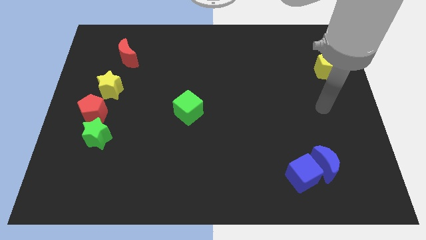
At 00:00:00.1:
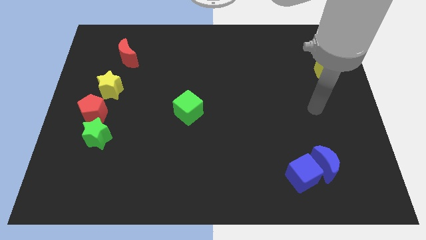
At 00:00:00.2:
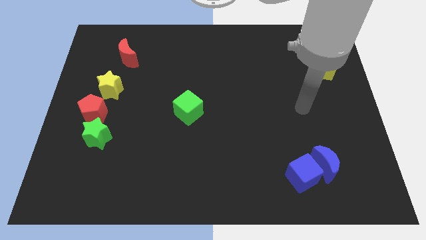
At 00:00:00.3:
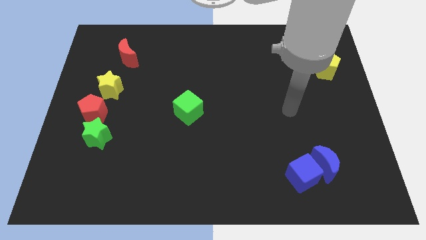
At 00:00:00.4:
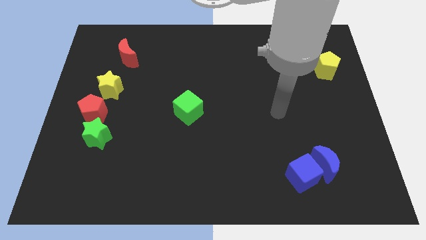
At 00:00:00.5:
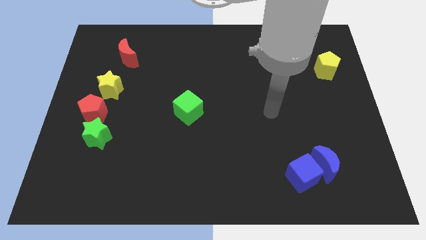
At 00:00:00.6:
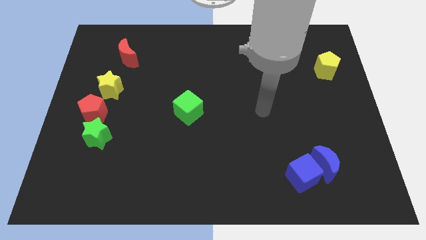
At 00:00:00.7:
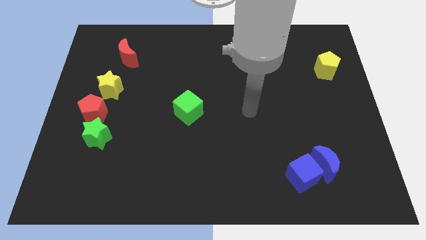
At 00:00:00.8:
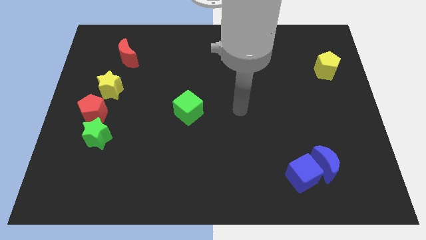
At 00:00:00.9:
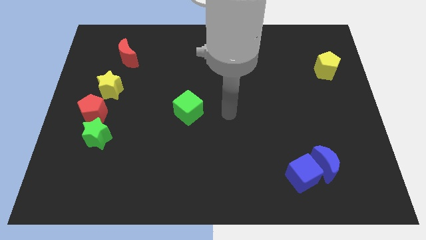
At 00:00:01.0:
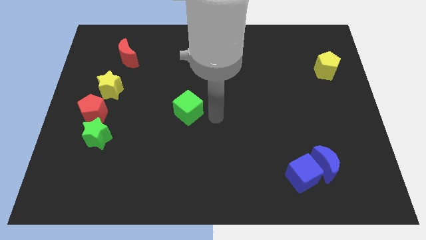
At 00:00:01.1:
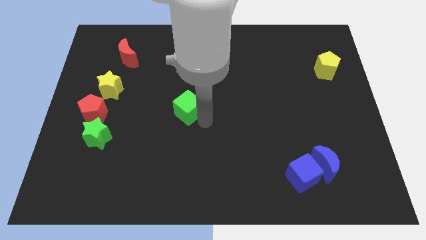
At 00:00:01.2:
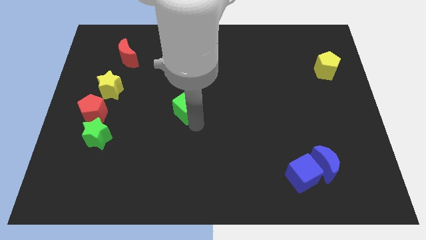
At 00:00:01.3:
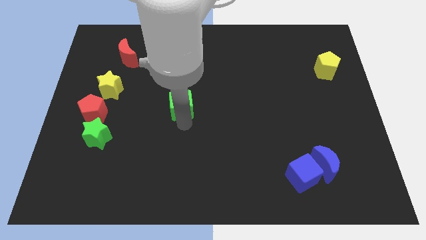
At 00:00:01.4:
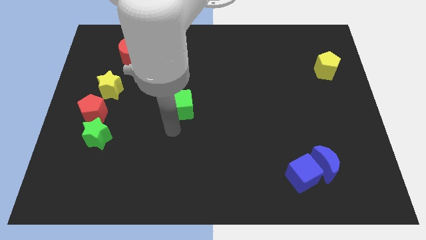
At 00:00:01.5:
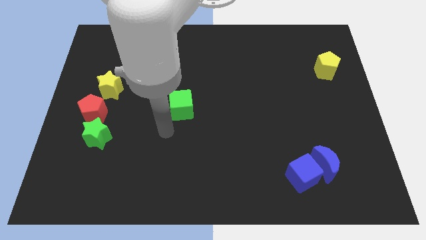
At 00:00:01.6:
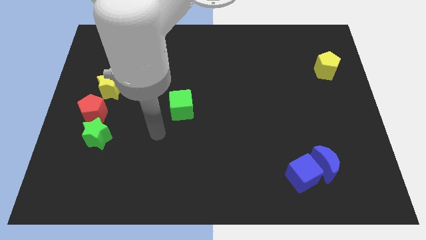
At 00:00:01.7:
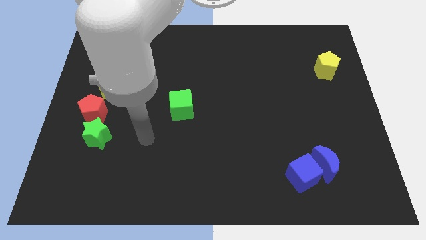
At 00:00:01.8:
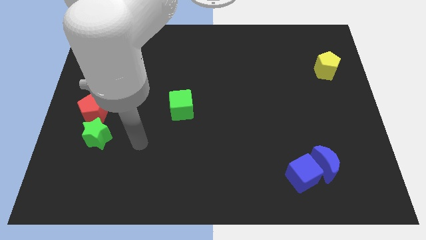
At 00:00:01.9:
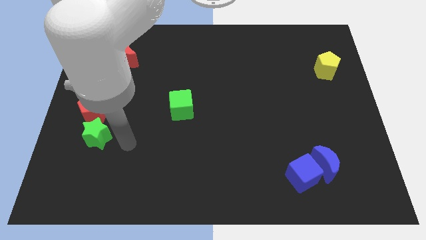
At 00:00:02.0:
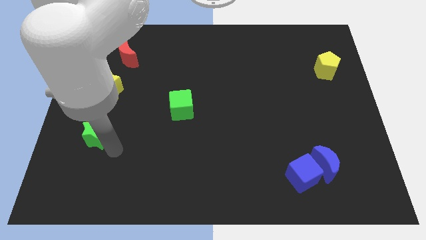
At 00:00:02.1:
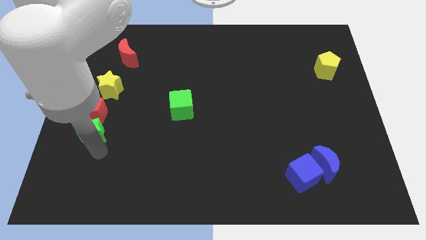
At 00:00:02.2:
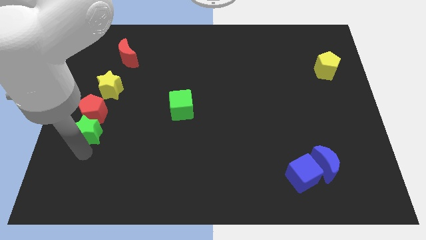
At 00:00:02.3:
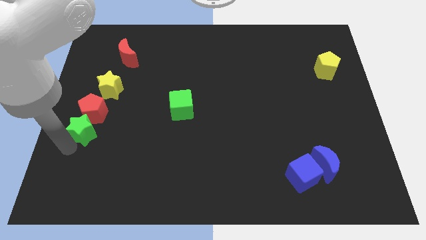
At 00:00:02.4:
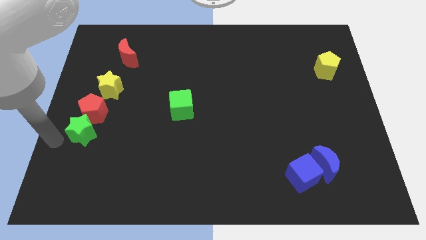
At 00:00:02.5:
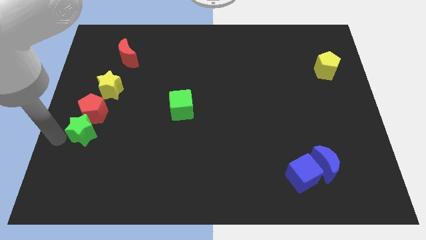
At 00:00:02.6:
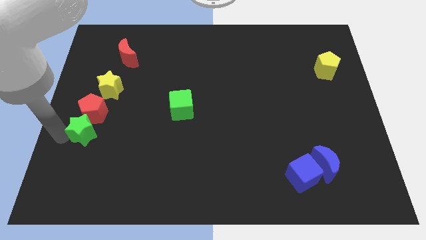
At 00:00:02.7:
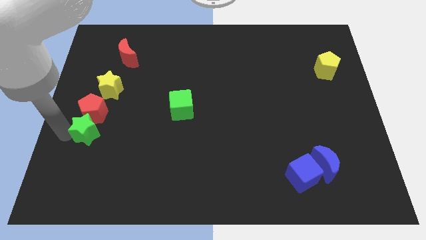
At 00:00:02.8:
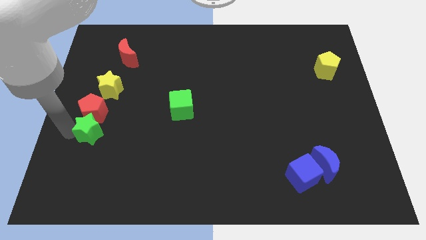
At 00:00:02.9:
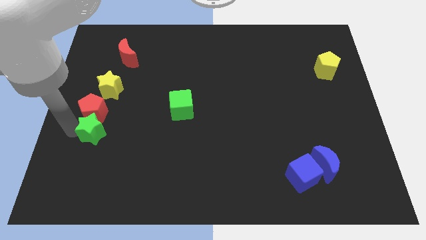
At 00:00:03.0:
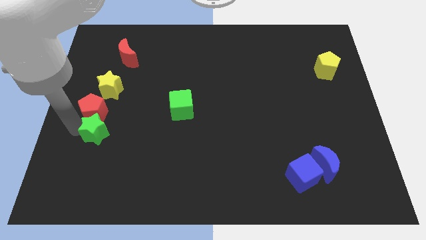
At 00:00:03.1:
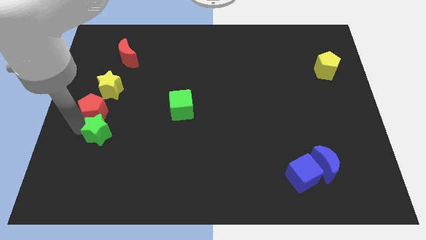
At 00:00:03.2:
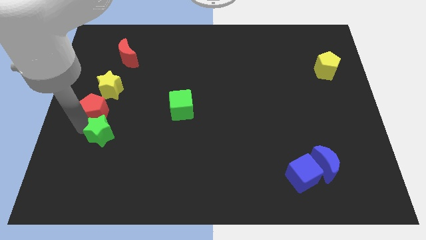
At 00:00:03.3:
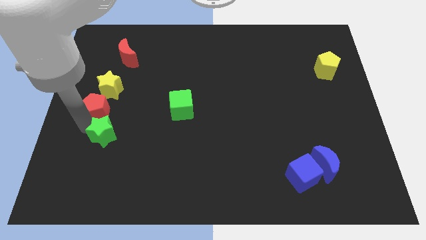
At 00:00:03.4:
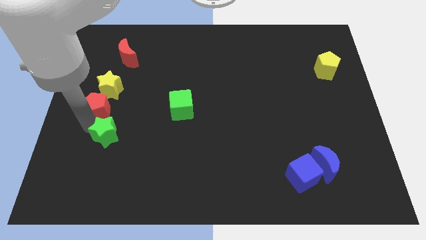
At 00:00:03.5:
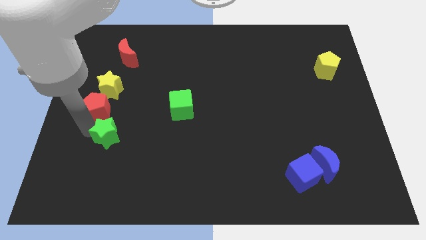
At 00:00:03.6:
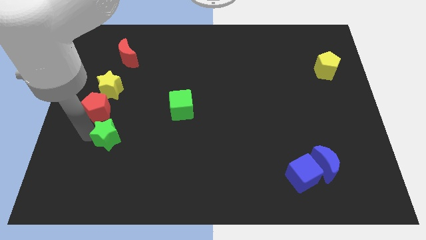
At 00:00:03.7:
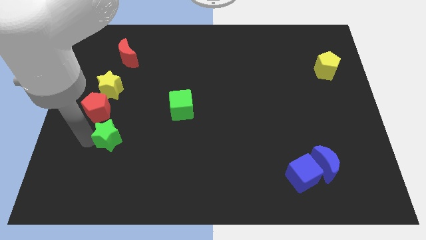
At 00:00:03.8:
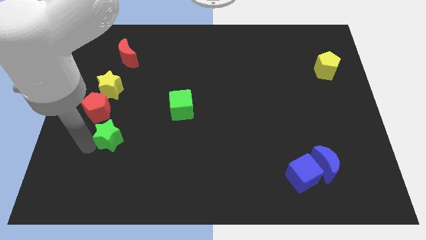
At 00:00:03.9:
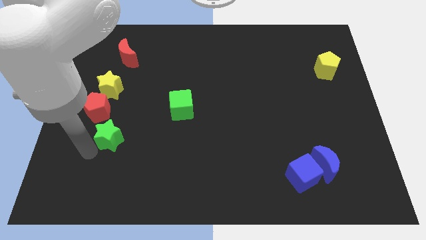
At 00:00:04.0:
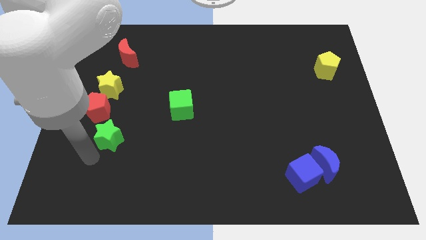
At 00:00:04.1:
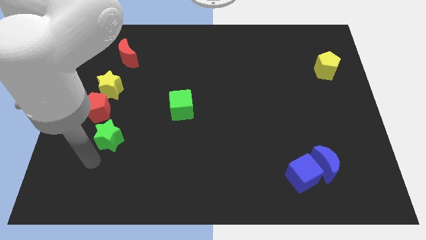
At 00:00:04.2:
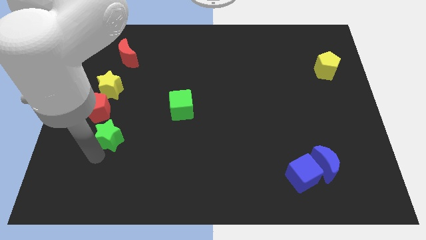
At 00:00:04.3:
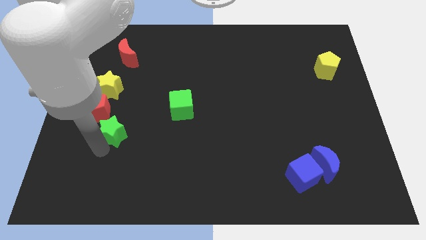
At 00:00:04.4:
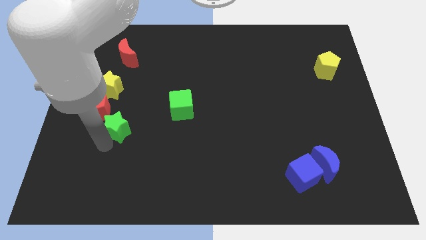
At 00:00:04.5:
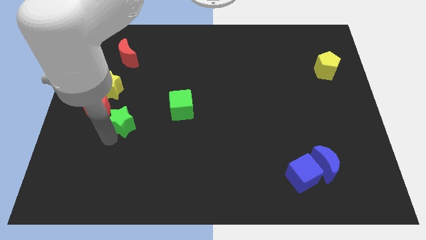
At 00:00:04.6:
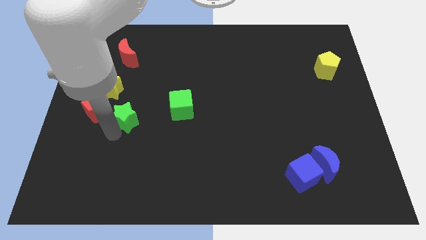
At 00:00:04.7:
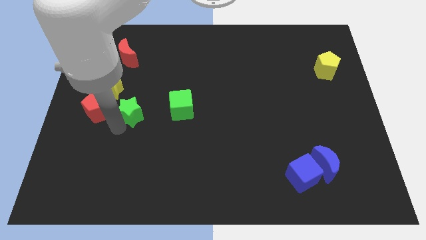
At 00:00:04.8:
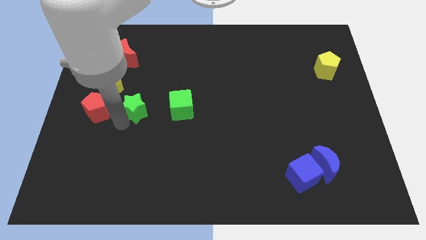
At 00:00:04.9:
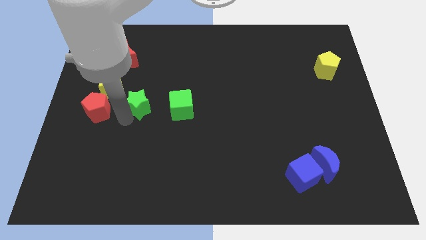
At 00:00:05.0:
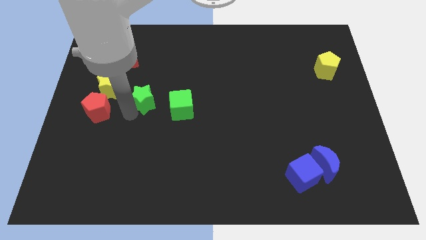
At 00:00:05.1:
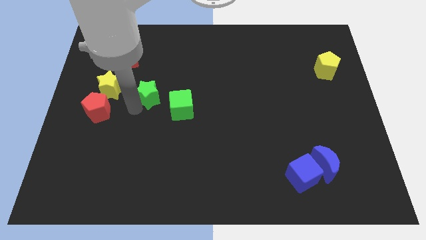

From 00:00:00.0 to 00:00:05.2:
put the green star to the top left side of the green cube

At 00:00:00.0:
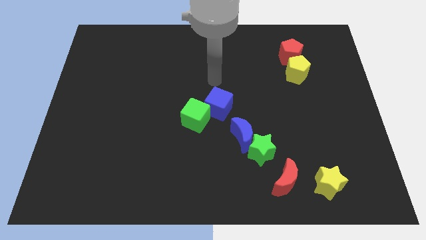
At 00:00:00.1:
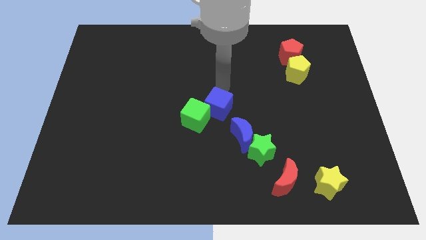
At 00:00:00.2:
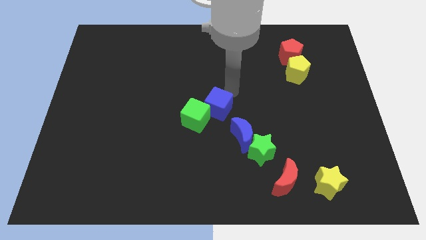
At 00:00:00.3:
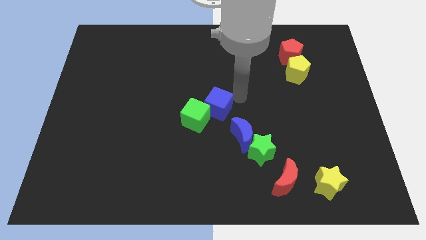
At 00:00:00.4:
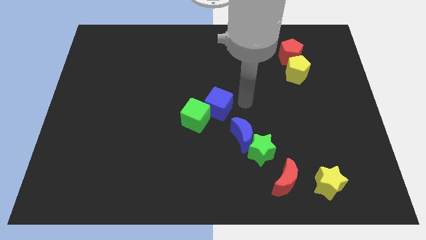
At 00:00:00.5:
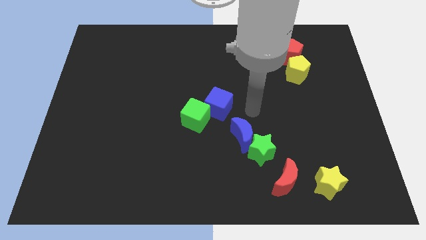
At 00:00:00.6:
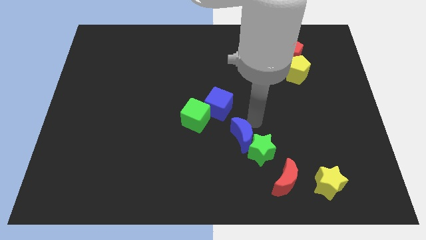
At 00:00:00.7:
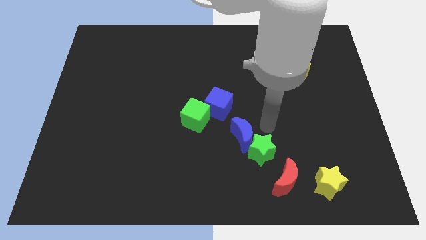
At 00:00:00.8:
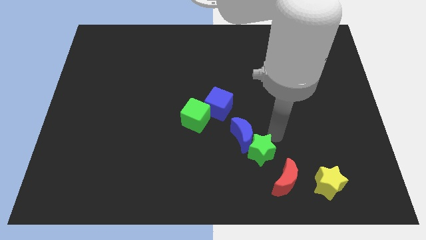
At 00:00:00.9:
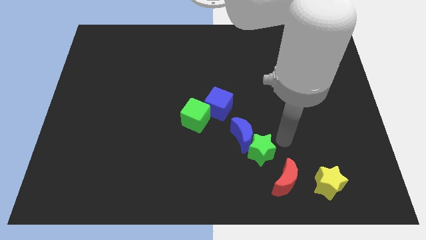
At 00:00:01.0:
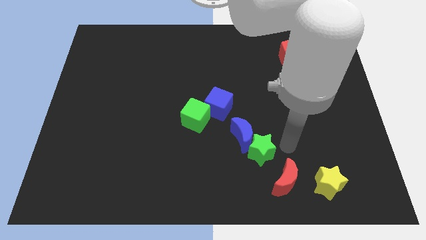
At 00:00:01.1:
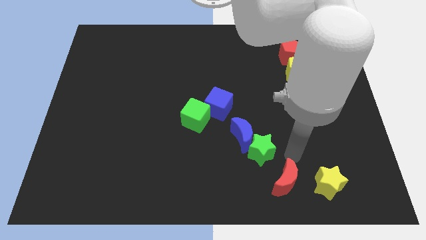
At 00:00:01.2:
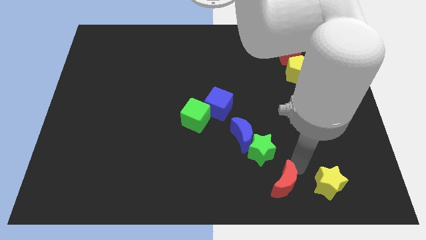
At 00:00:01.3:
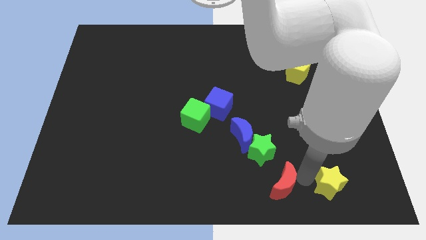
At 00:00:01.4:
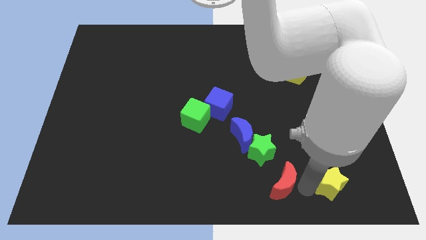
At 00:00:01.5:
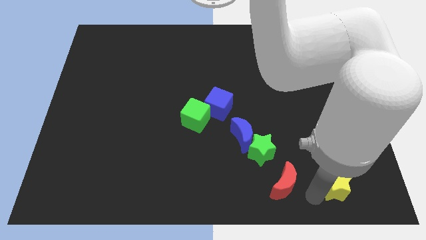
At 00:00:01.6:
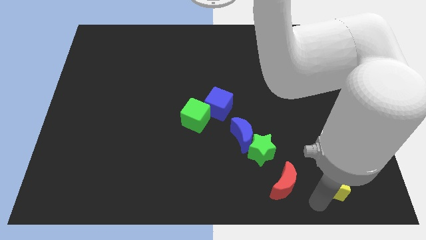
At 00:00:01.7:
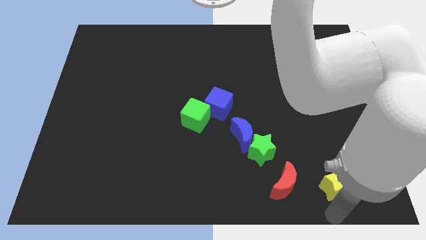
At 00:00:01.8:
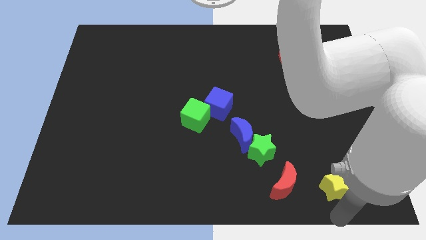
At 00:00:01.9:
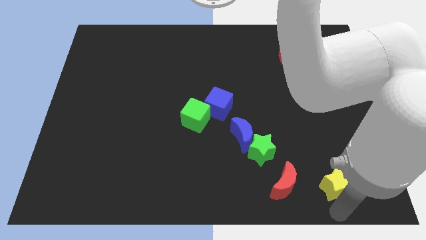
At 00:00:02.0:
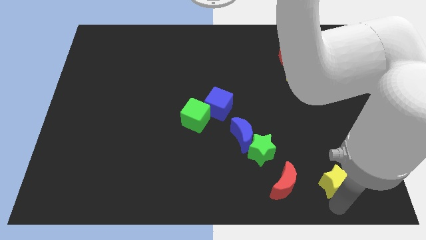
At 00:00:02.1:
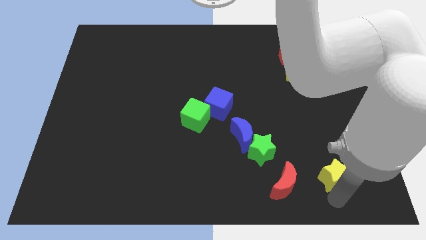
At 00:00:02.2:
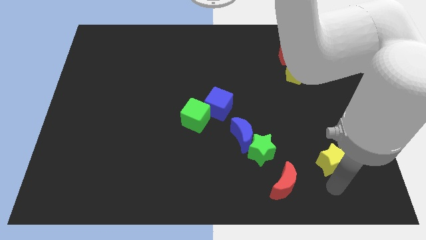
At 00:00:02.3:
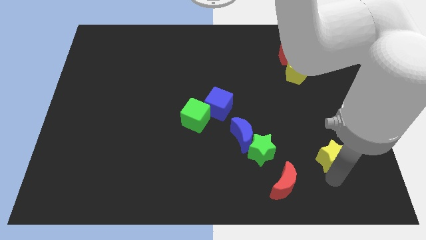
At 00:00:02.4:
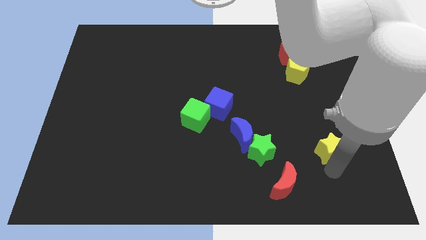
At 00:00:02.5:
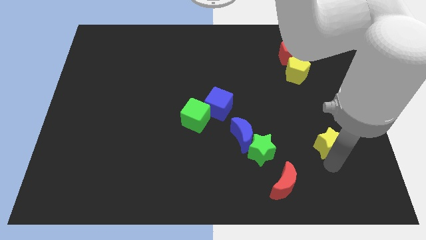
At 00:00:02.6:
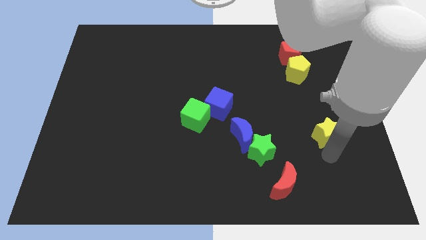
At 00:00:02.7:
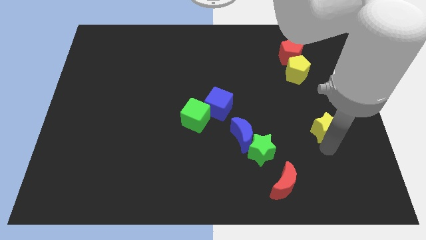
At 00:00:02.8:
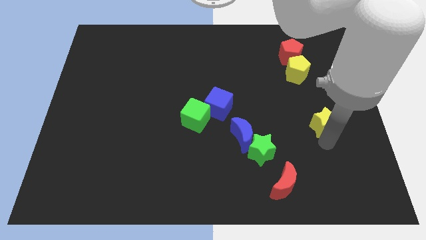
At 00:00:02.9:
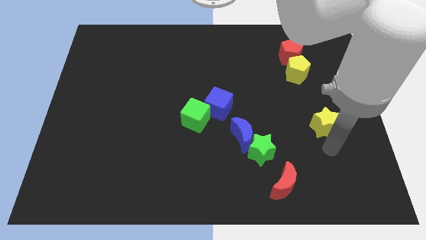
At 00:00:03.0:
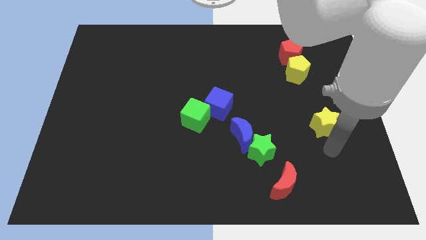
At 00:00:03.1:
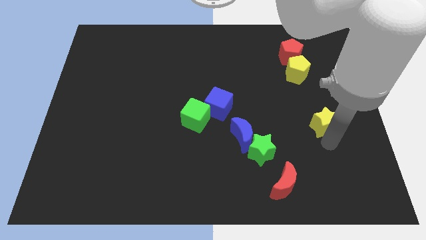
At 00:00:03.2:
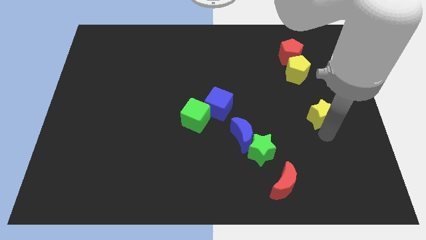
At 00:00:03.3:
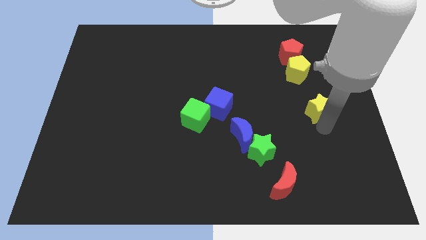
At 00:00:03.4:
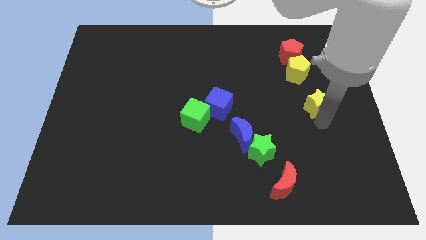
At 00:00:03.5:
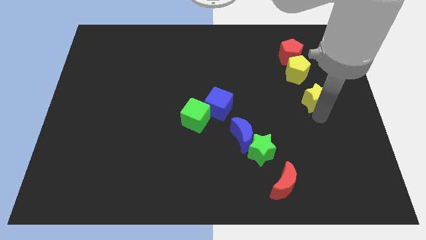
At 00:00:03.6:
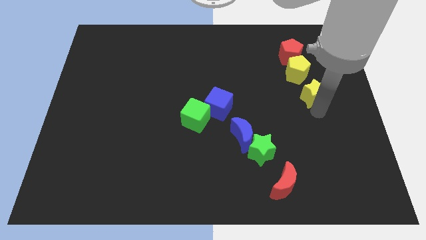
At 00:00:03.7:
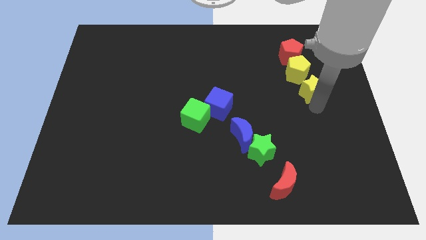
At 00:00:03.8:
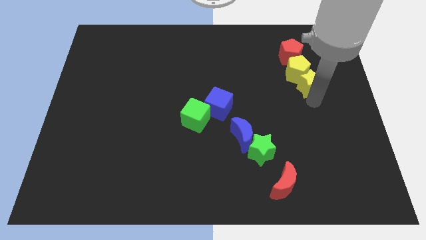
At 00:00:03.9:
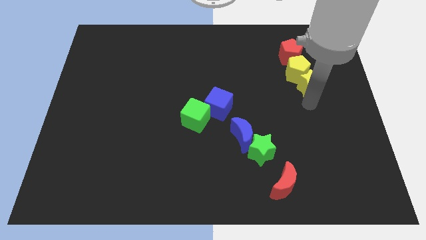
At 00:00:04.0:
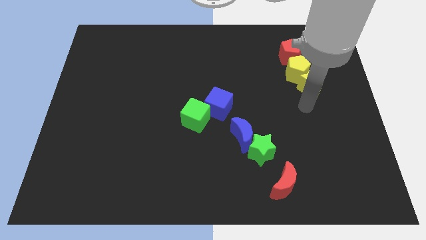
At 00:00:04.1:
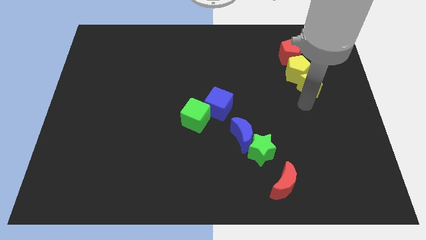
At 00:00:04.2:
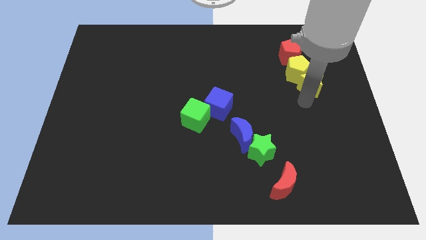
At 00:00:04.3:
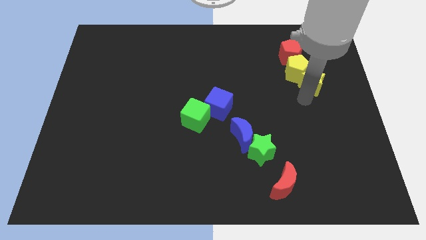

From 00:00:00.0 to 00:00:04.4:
slide the yellow star diagonally down and to the right of the red pentagon
